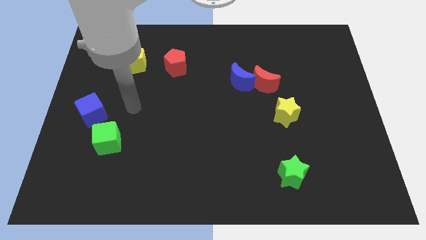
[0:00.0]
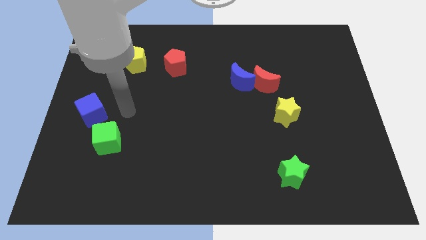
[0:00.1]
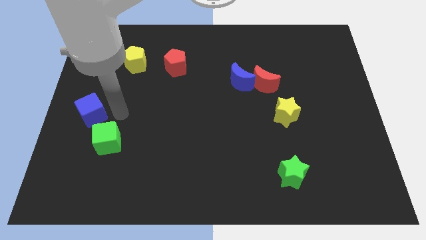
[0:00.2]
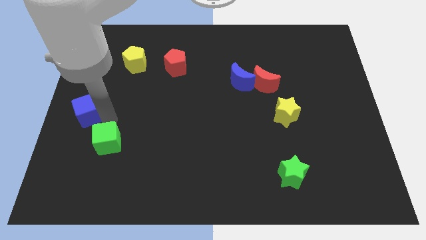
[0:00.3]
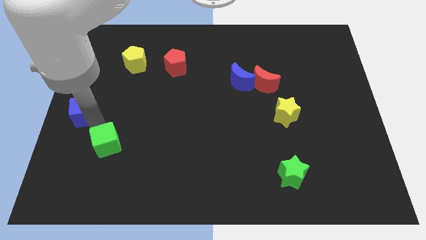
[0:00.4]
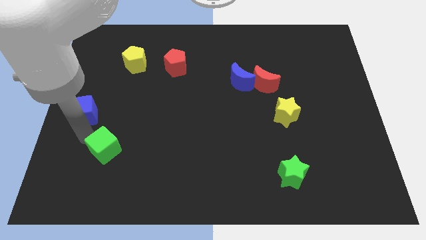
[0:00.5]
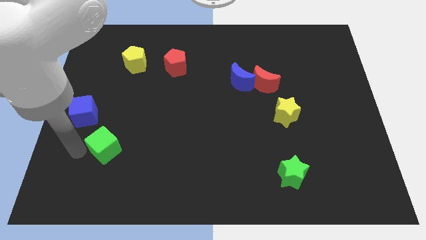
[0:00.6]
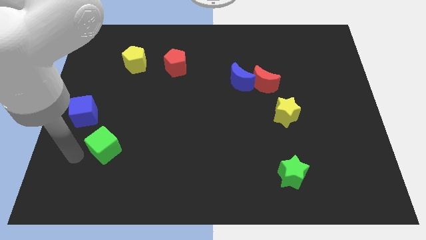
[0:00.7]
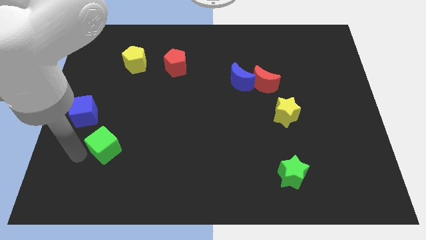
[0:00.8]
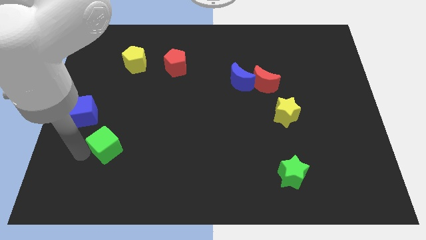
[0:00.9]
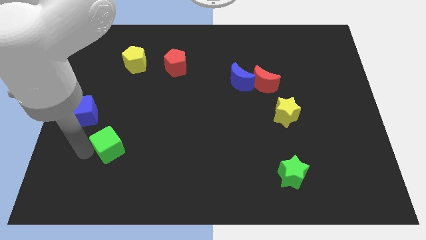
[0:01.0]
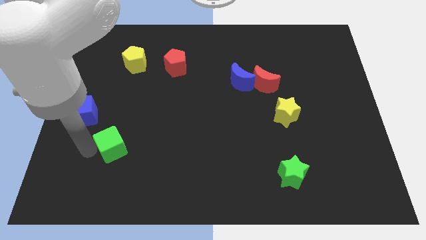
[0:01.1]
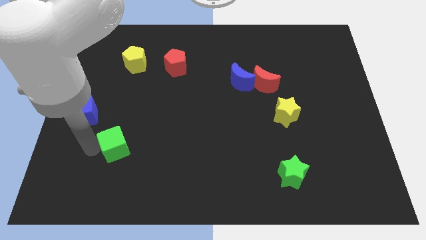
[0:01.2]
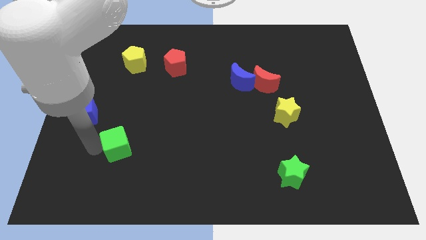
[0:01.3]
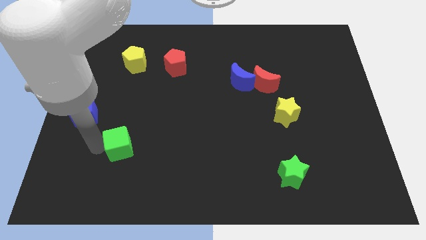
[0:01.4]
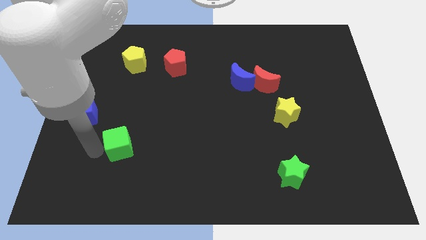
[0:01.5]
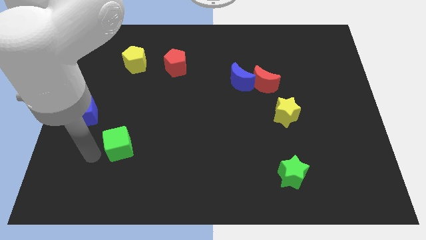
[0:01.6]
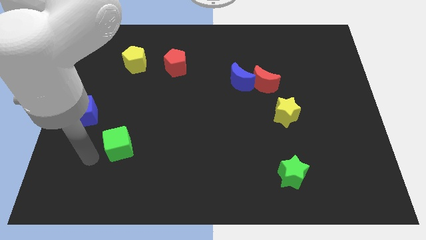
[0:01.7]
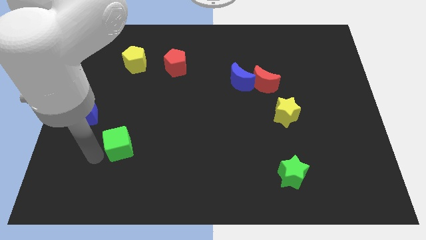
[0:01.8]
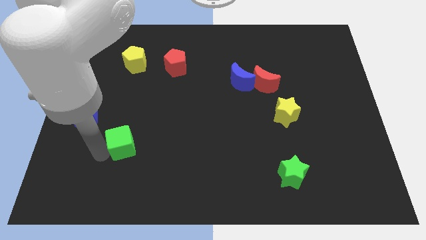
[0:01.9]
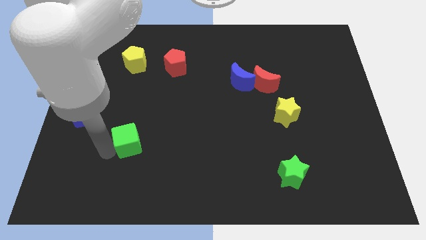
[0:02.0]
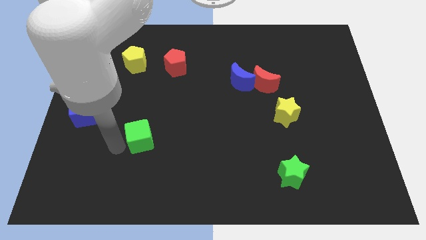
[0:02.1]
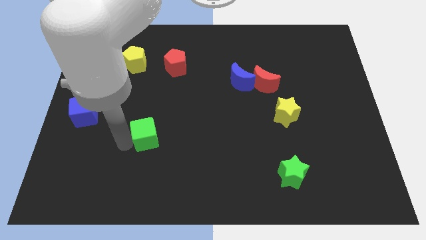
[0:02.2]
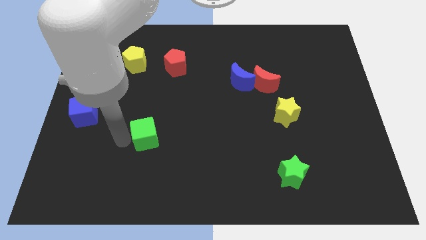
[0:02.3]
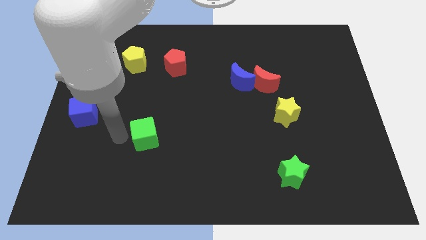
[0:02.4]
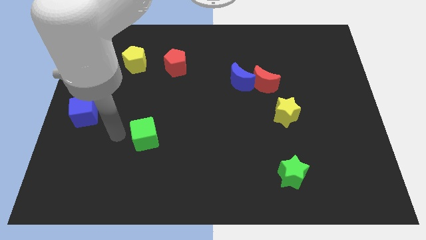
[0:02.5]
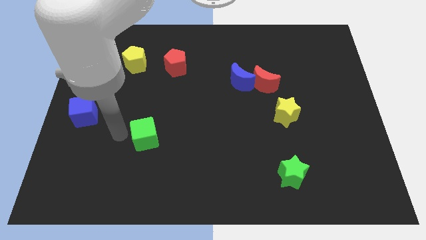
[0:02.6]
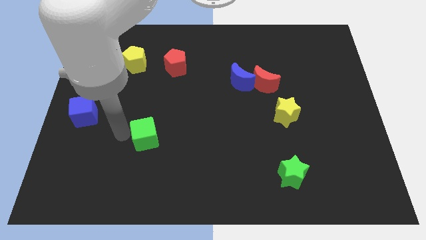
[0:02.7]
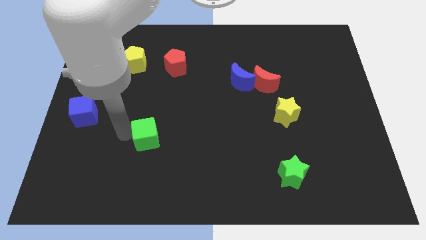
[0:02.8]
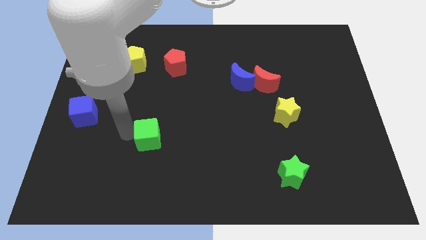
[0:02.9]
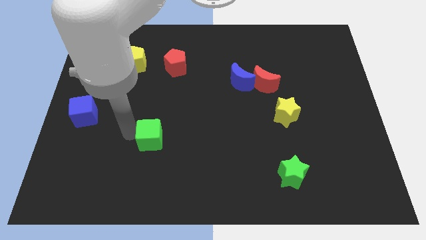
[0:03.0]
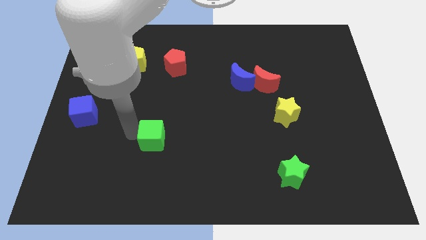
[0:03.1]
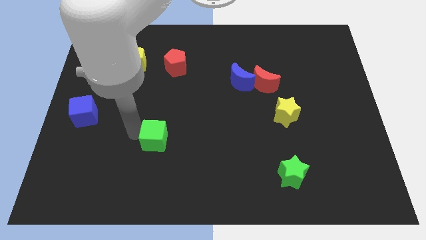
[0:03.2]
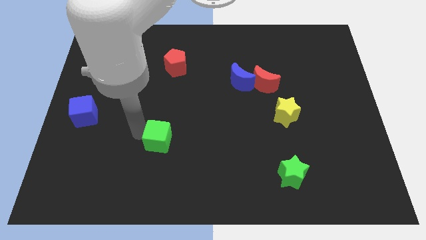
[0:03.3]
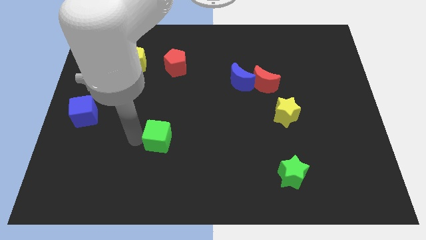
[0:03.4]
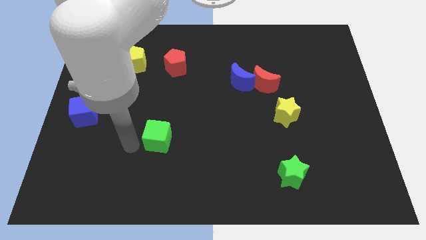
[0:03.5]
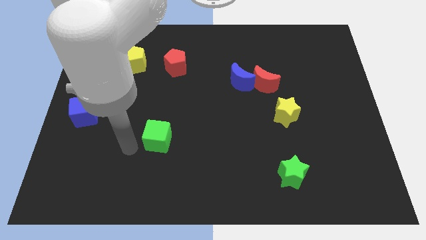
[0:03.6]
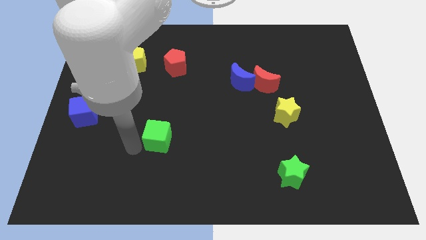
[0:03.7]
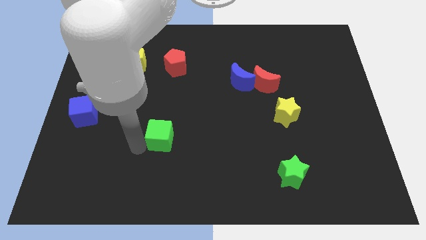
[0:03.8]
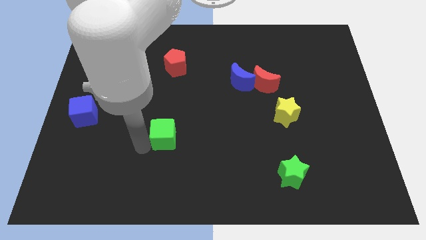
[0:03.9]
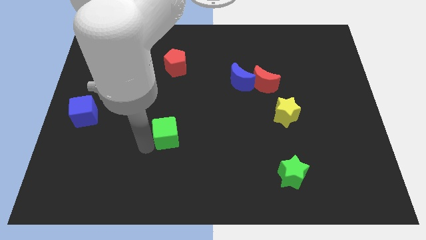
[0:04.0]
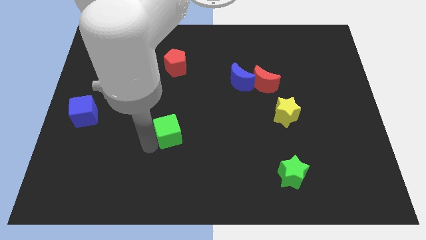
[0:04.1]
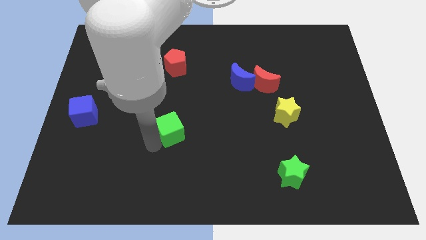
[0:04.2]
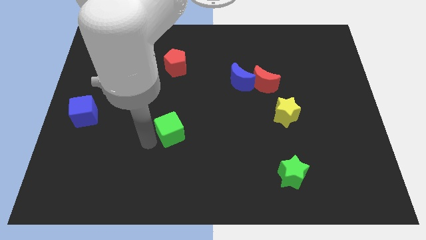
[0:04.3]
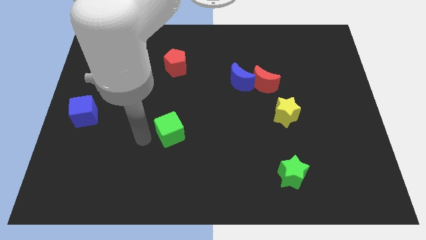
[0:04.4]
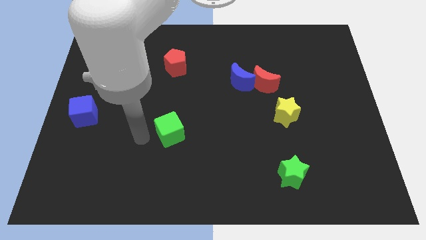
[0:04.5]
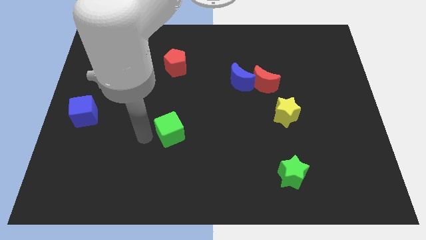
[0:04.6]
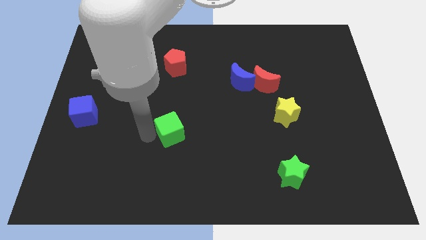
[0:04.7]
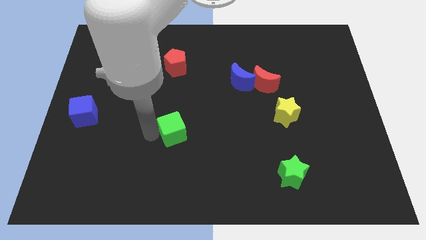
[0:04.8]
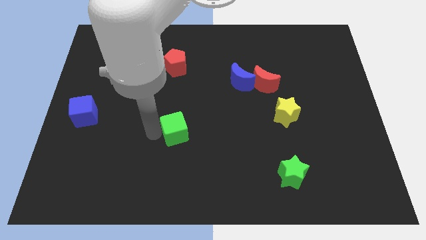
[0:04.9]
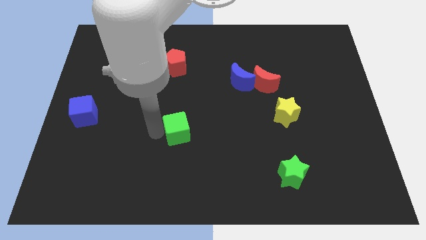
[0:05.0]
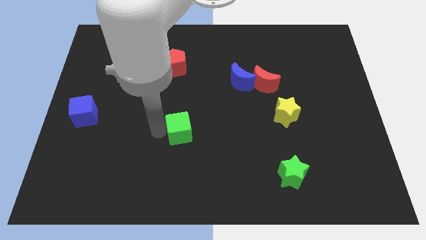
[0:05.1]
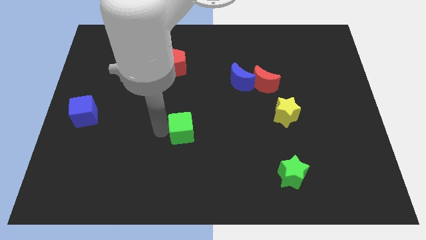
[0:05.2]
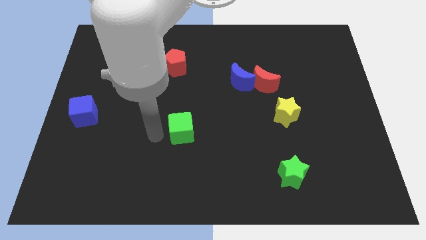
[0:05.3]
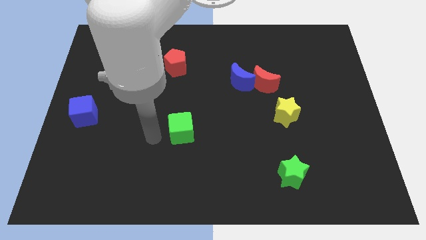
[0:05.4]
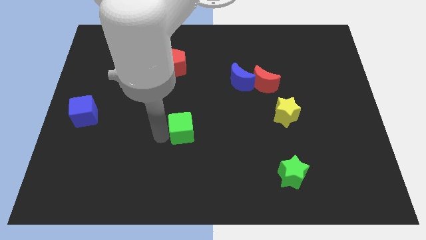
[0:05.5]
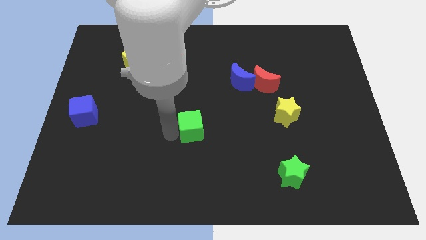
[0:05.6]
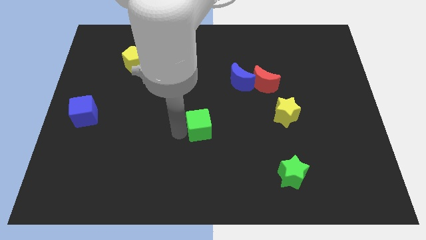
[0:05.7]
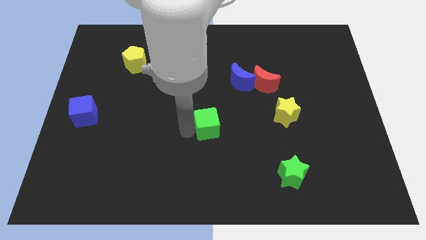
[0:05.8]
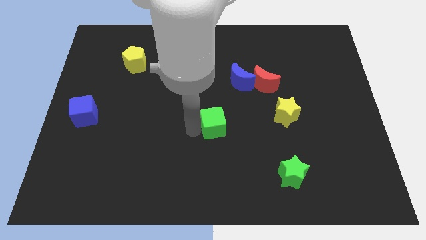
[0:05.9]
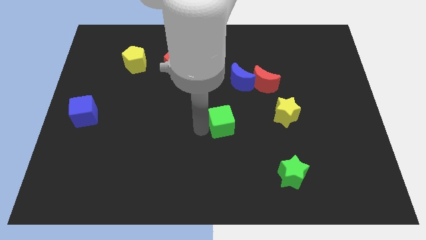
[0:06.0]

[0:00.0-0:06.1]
slide the green cube to the bottom of the blue moon

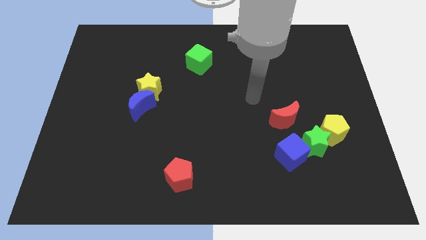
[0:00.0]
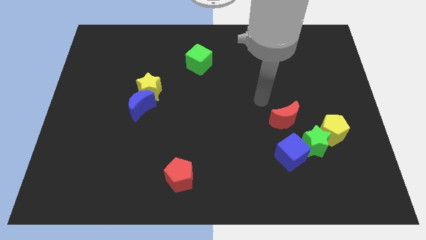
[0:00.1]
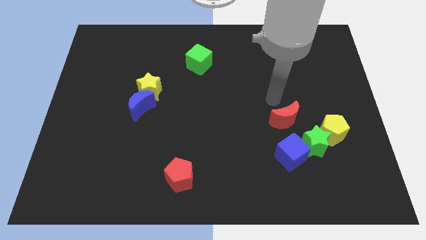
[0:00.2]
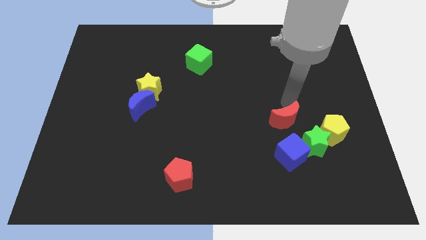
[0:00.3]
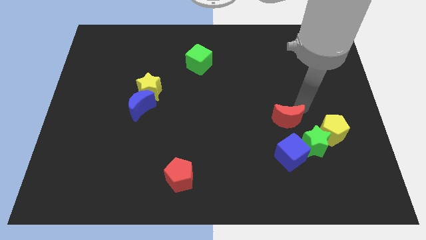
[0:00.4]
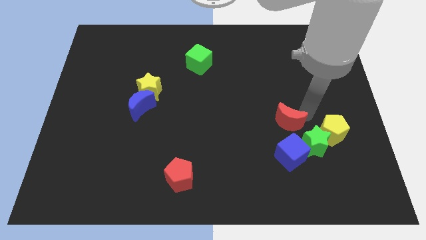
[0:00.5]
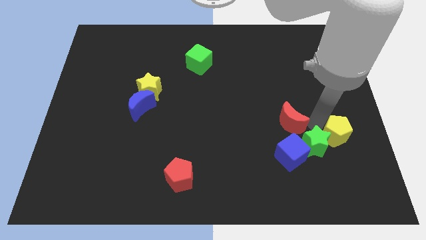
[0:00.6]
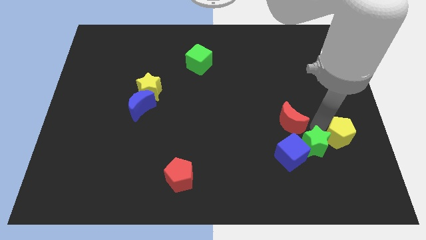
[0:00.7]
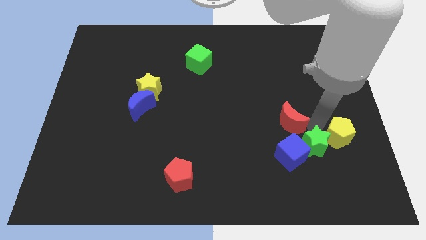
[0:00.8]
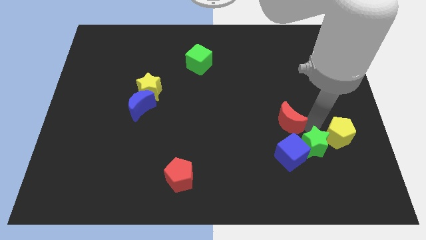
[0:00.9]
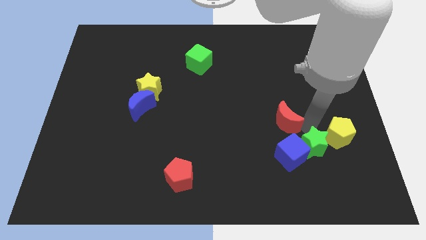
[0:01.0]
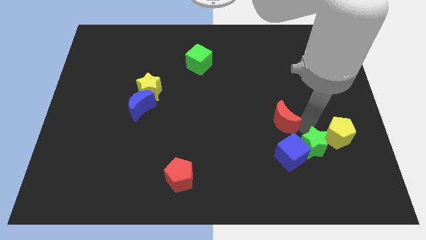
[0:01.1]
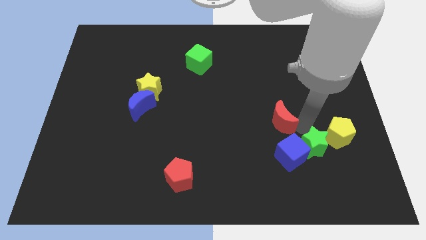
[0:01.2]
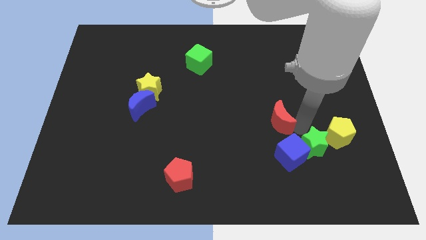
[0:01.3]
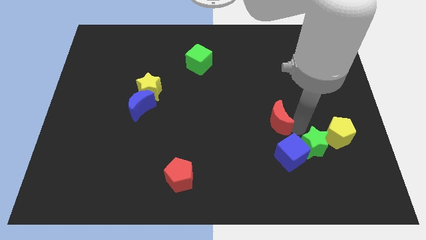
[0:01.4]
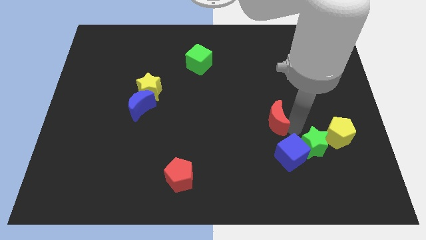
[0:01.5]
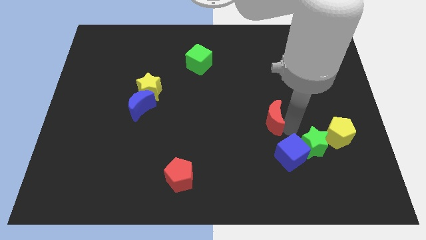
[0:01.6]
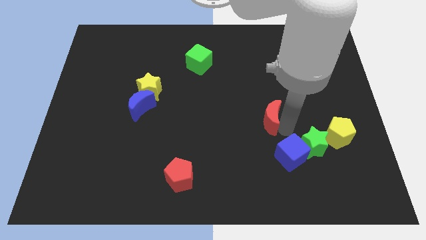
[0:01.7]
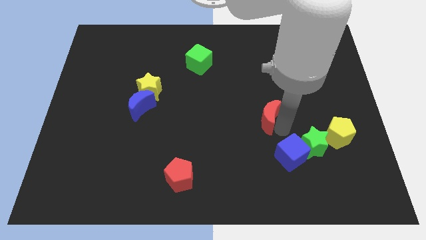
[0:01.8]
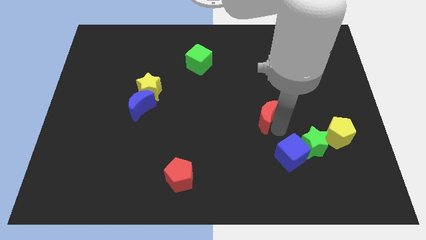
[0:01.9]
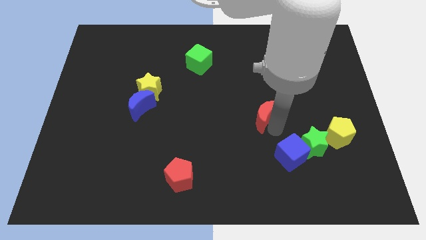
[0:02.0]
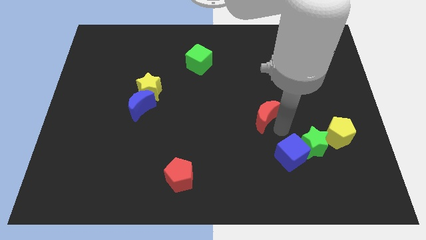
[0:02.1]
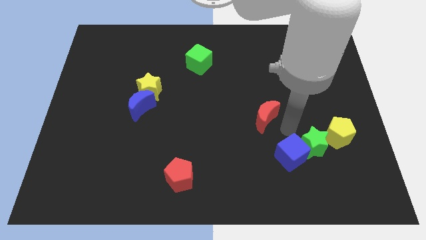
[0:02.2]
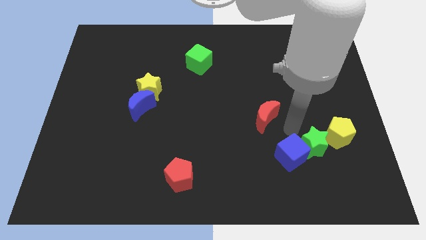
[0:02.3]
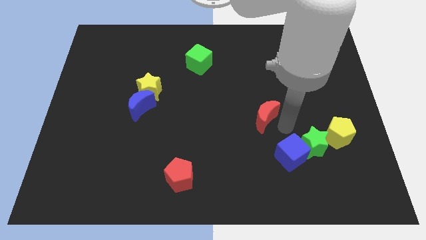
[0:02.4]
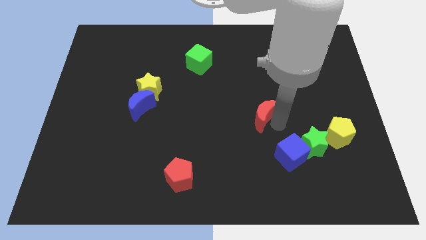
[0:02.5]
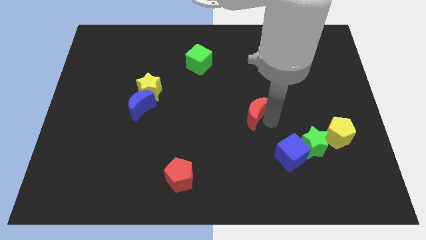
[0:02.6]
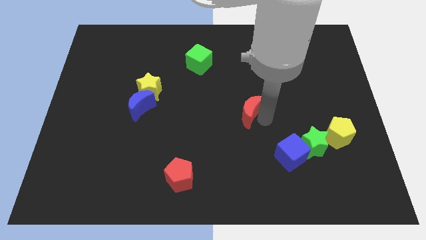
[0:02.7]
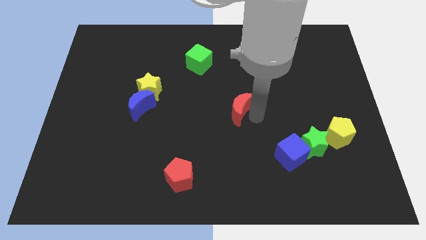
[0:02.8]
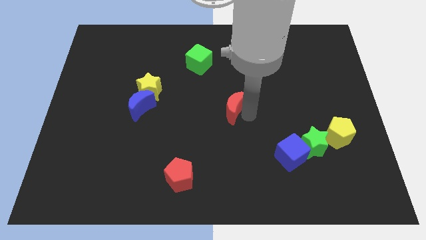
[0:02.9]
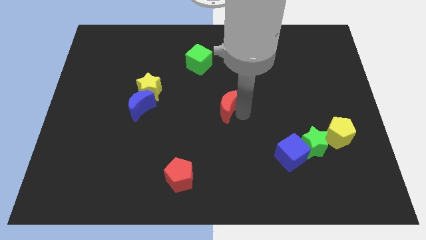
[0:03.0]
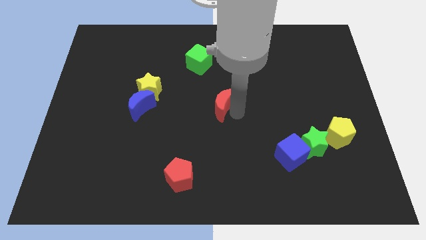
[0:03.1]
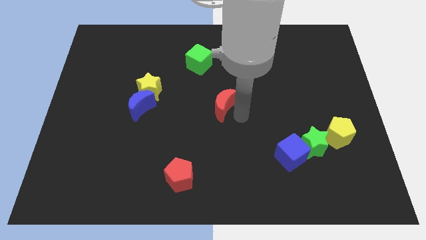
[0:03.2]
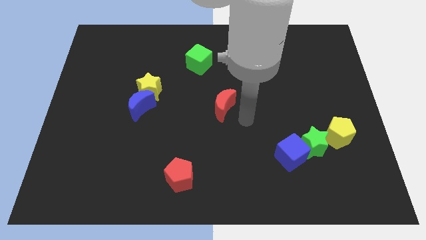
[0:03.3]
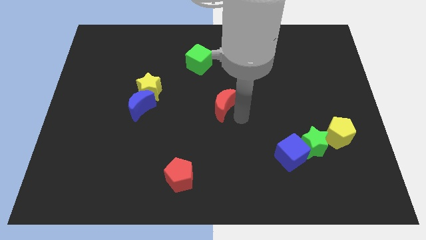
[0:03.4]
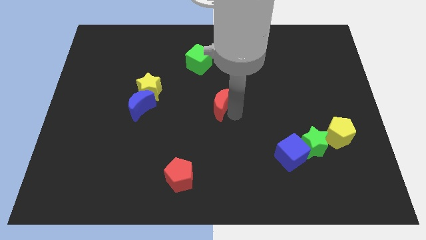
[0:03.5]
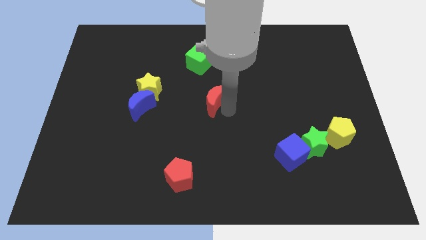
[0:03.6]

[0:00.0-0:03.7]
slide the red moon below the green cube
